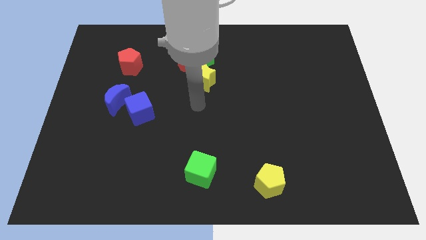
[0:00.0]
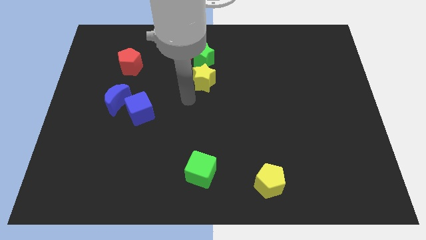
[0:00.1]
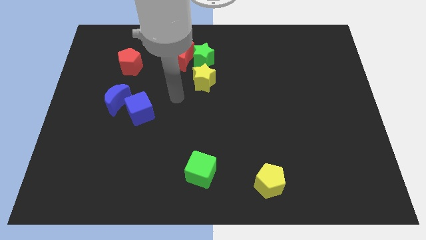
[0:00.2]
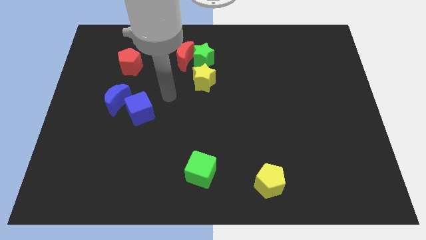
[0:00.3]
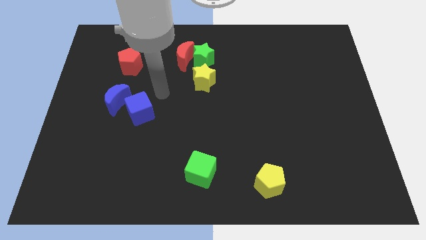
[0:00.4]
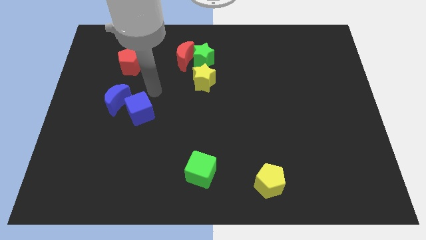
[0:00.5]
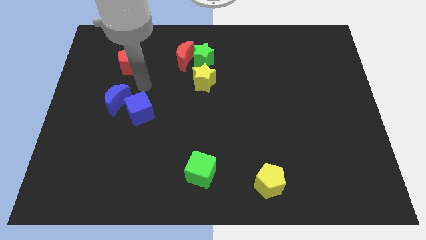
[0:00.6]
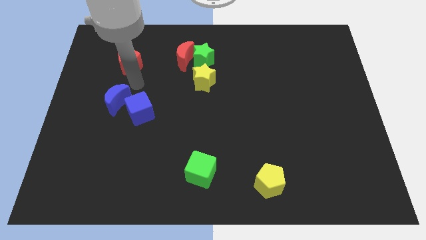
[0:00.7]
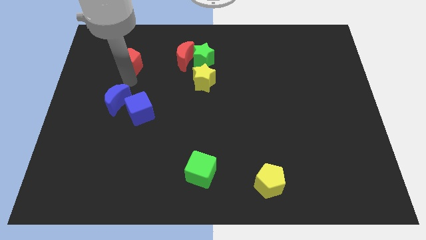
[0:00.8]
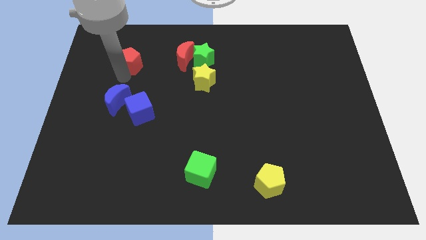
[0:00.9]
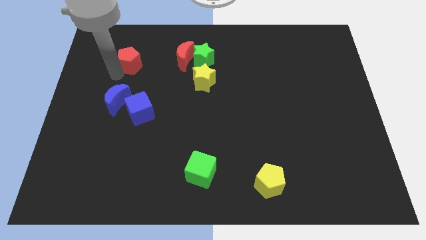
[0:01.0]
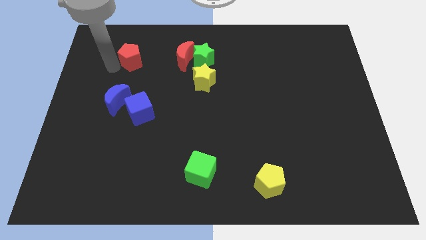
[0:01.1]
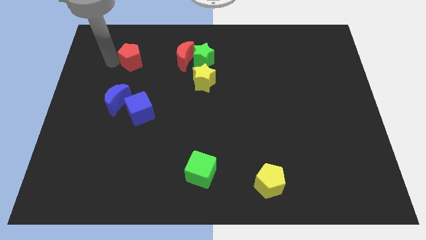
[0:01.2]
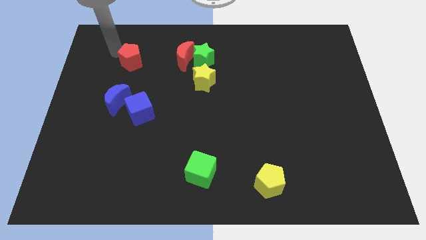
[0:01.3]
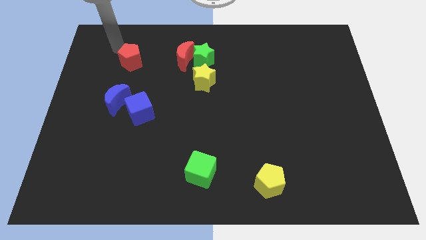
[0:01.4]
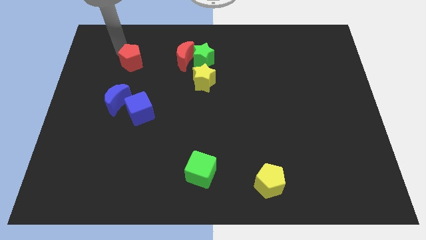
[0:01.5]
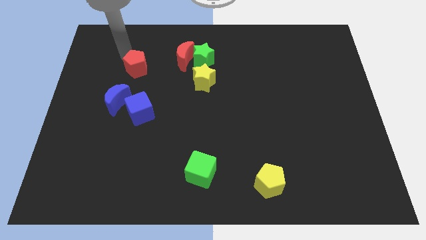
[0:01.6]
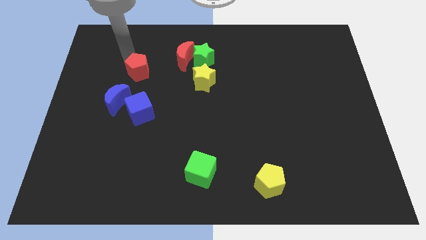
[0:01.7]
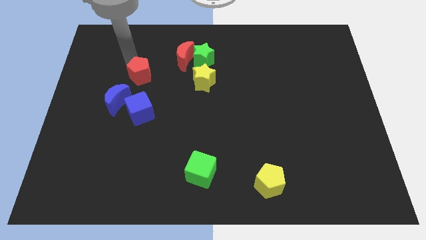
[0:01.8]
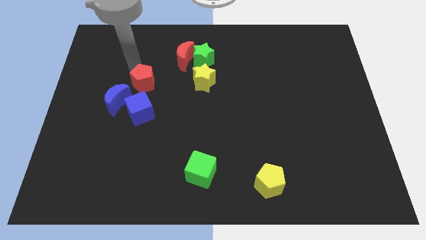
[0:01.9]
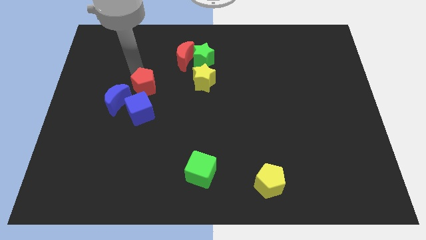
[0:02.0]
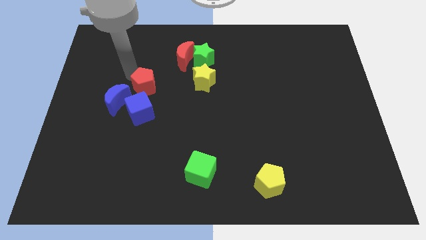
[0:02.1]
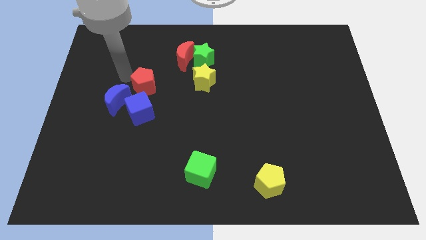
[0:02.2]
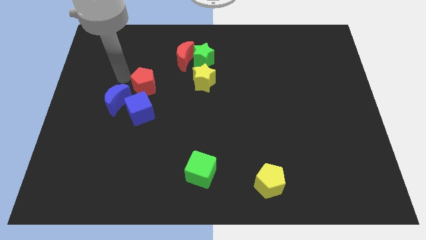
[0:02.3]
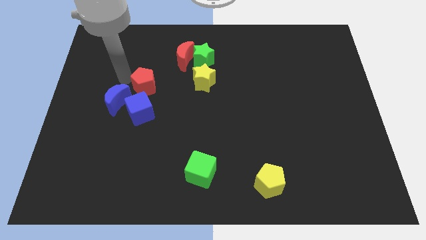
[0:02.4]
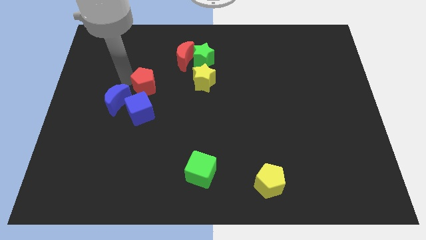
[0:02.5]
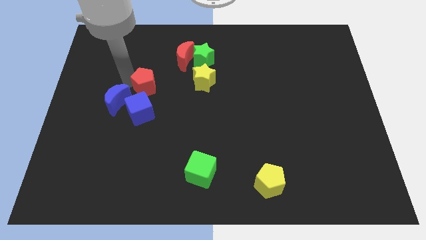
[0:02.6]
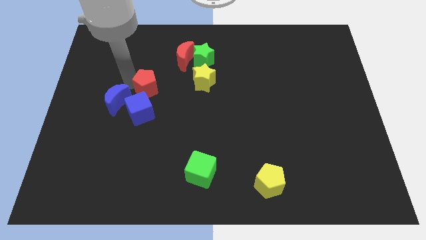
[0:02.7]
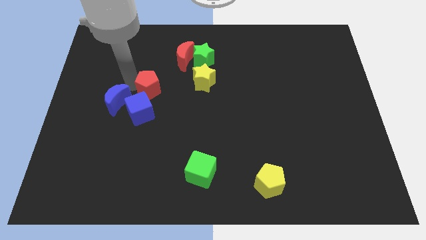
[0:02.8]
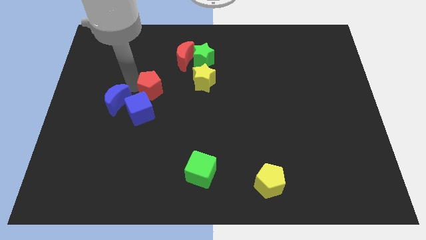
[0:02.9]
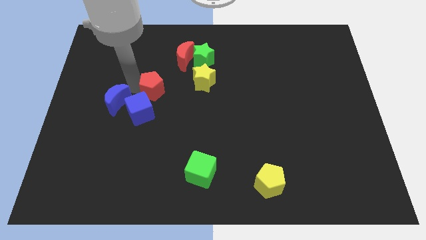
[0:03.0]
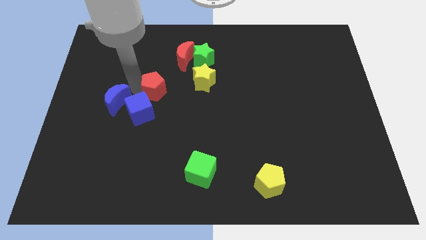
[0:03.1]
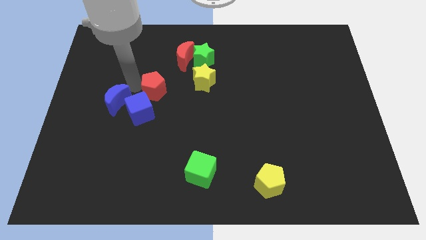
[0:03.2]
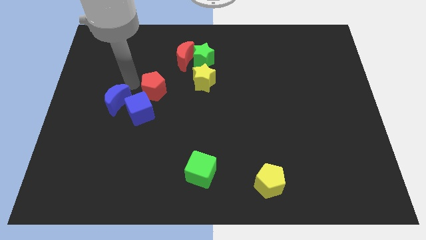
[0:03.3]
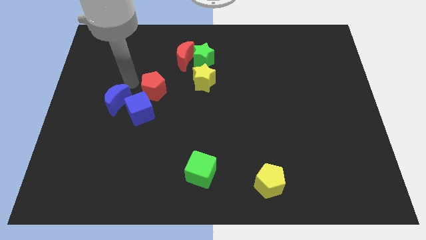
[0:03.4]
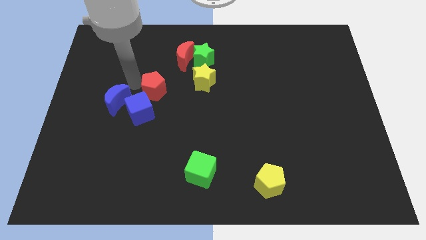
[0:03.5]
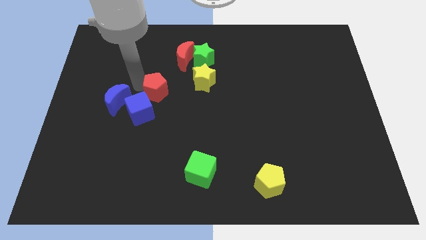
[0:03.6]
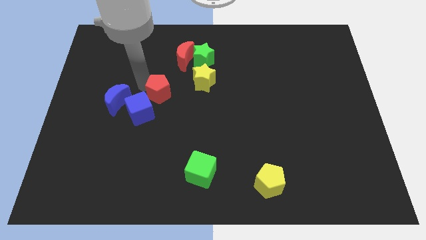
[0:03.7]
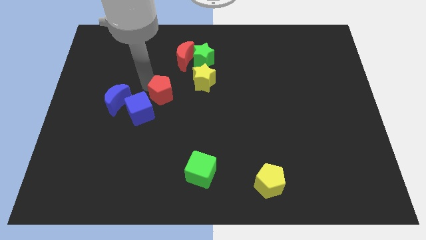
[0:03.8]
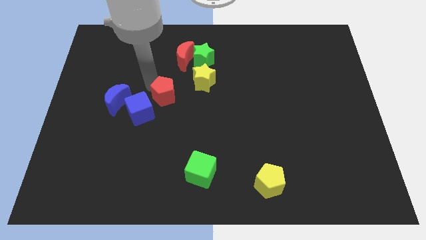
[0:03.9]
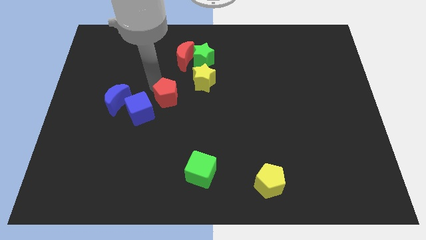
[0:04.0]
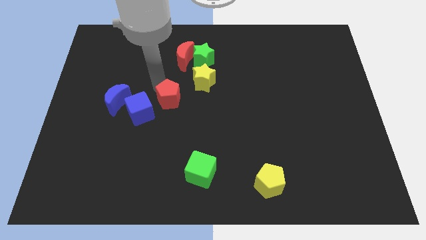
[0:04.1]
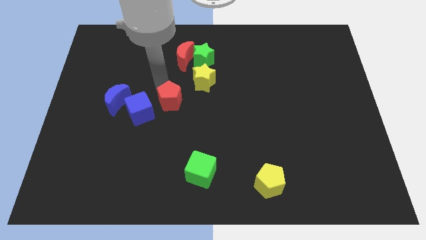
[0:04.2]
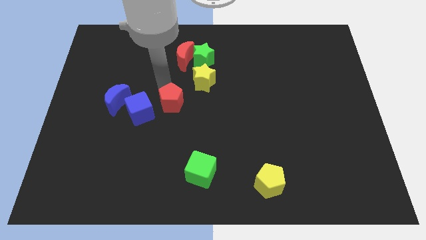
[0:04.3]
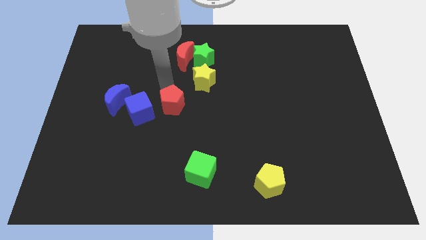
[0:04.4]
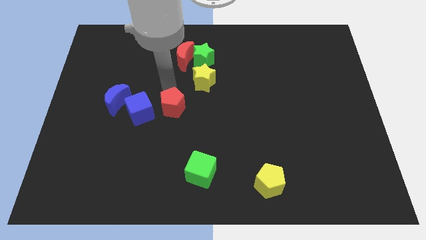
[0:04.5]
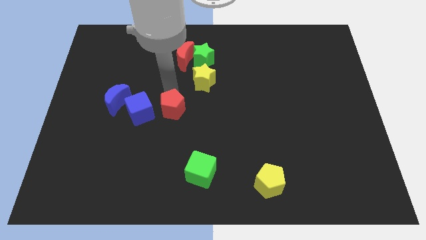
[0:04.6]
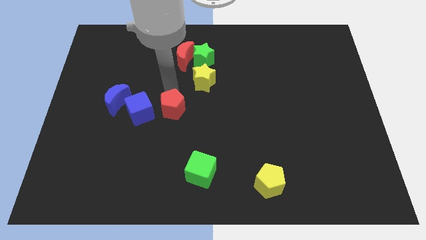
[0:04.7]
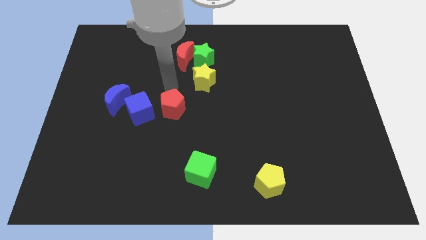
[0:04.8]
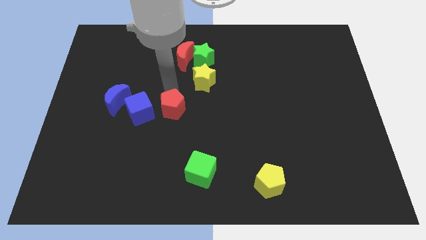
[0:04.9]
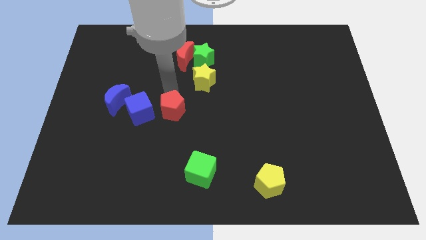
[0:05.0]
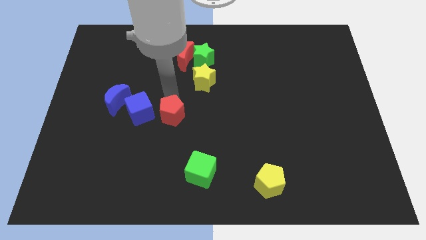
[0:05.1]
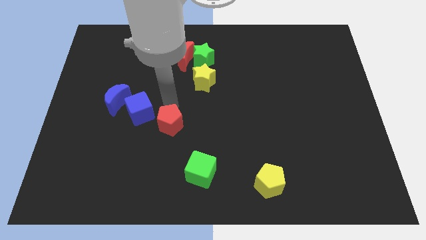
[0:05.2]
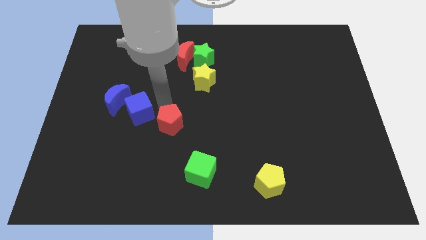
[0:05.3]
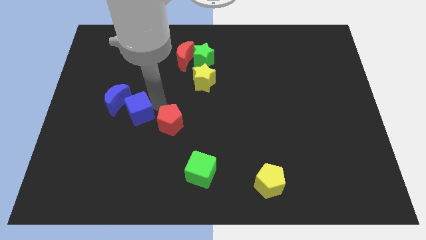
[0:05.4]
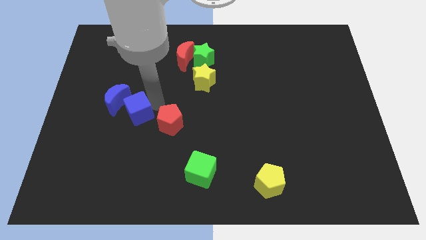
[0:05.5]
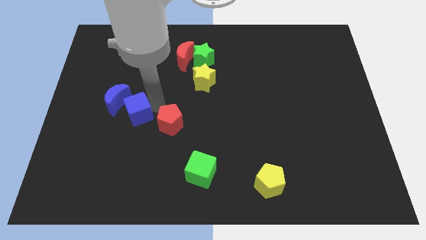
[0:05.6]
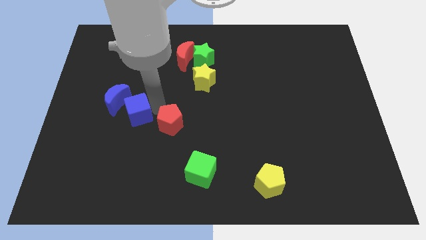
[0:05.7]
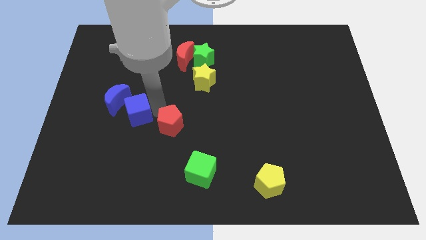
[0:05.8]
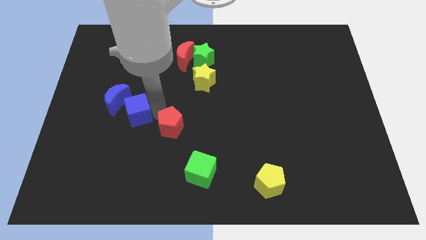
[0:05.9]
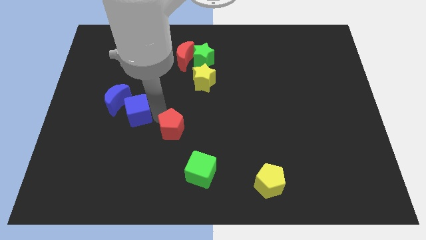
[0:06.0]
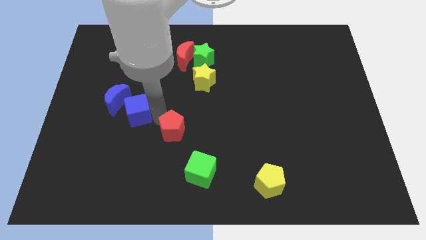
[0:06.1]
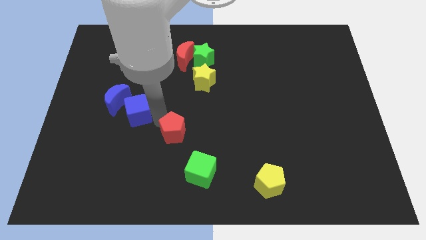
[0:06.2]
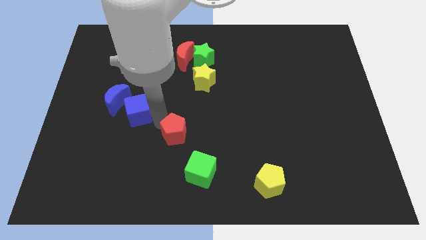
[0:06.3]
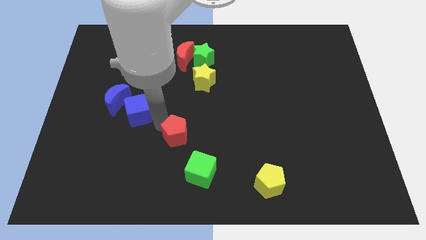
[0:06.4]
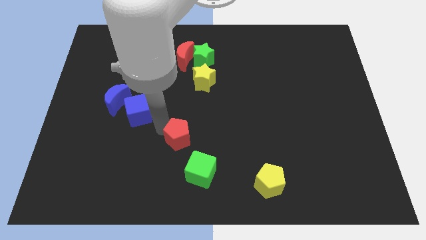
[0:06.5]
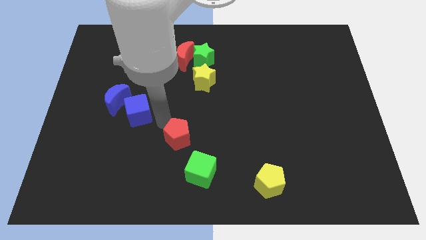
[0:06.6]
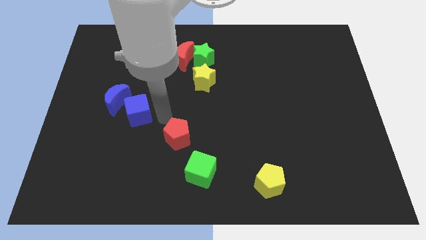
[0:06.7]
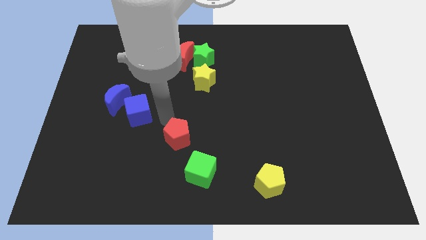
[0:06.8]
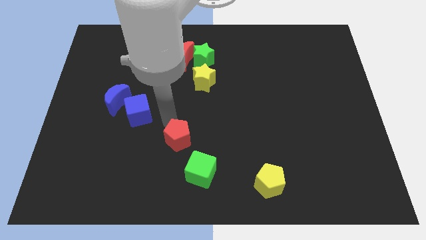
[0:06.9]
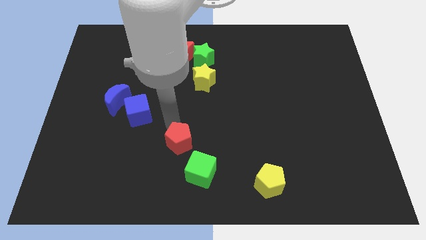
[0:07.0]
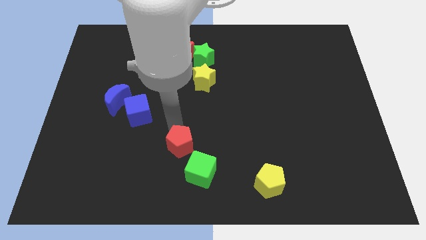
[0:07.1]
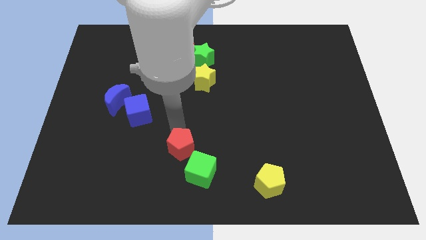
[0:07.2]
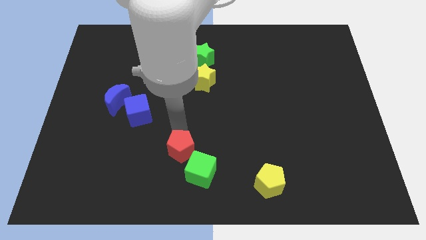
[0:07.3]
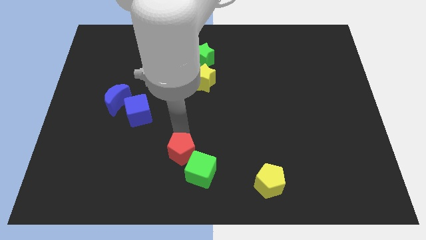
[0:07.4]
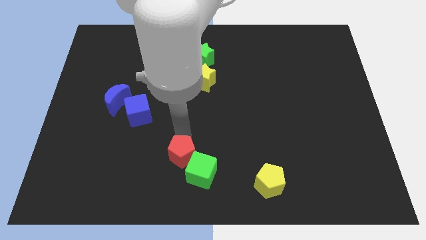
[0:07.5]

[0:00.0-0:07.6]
put the red pentagon next to the green cube
